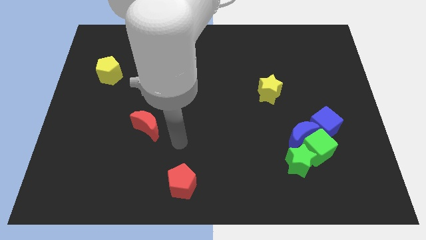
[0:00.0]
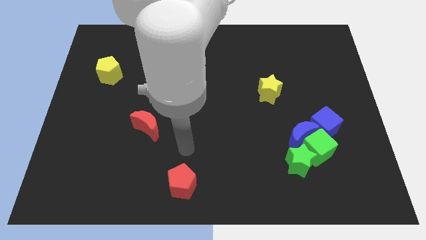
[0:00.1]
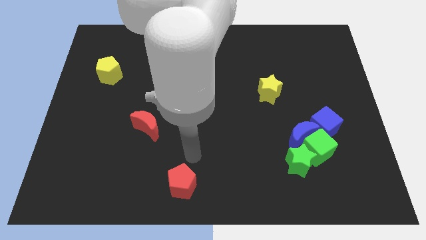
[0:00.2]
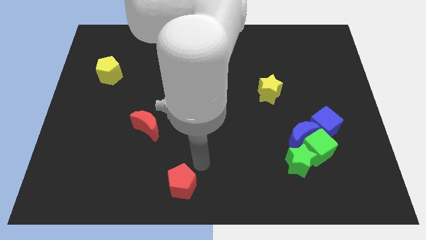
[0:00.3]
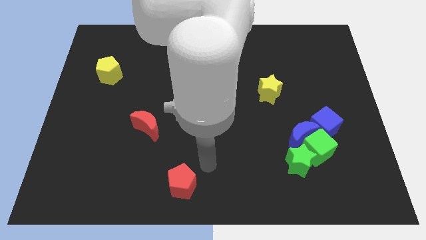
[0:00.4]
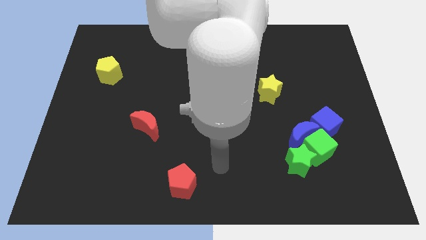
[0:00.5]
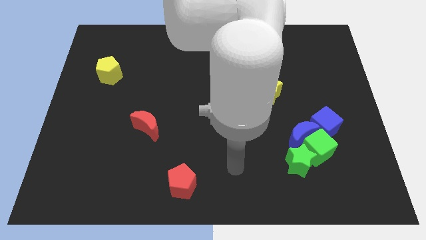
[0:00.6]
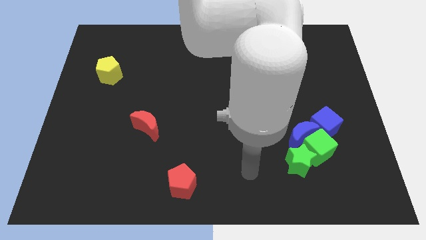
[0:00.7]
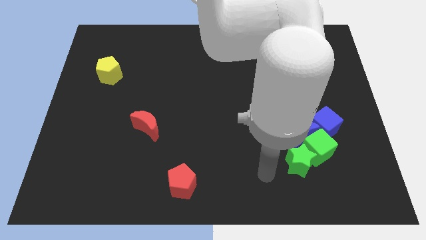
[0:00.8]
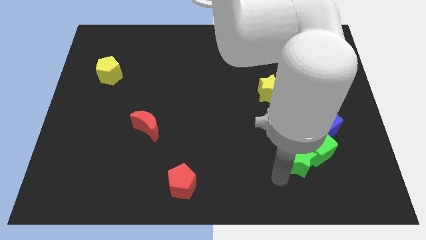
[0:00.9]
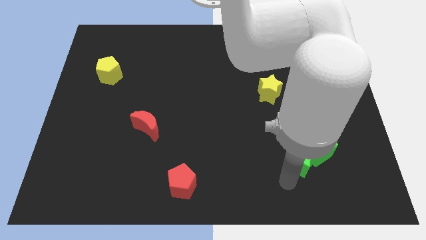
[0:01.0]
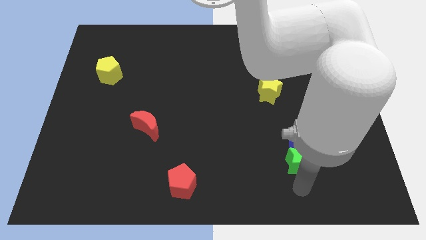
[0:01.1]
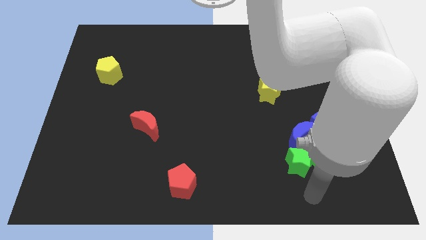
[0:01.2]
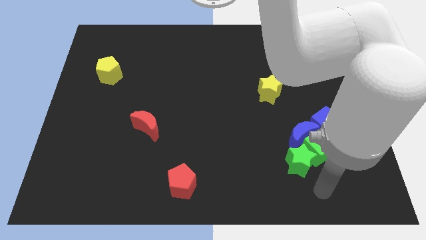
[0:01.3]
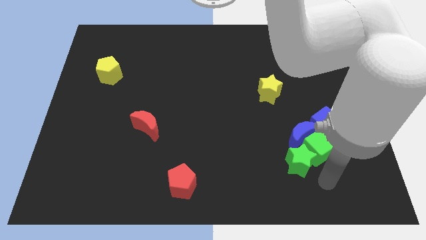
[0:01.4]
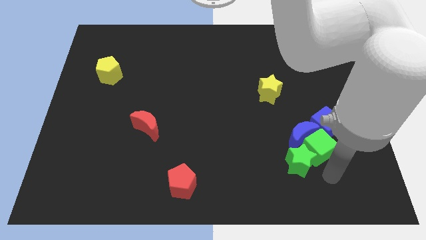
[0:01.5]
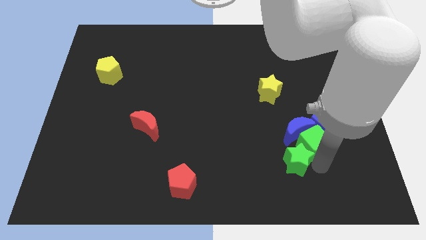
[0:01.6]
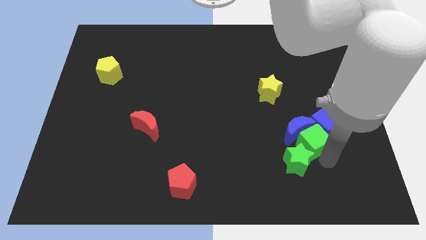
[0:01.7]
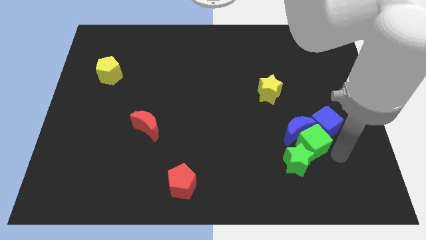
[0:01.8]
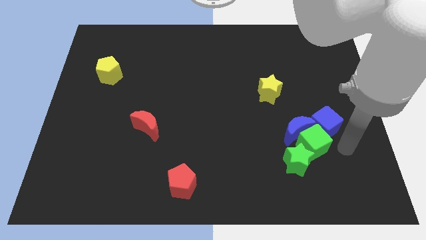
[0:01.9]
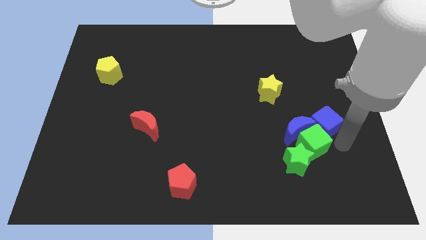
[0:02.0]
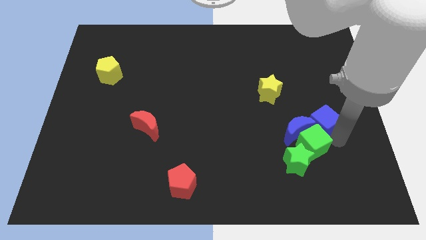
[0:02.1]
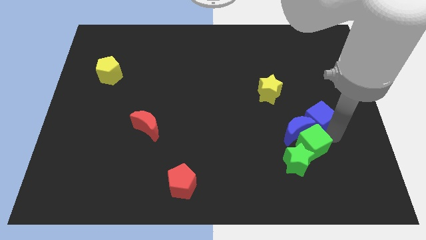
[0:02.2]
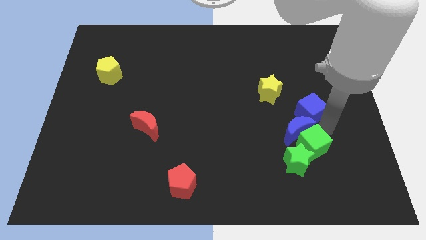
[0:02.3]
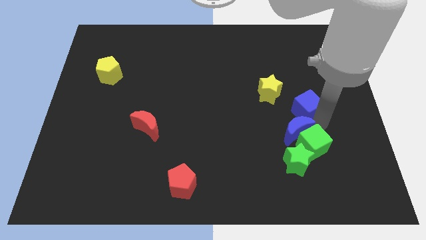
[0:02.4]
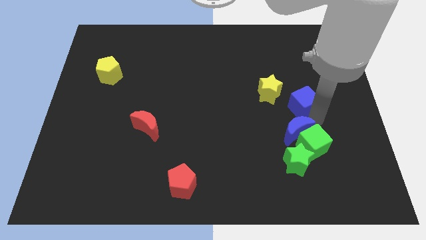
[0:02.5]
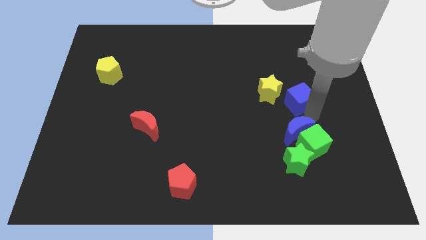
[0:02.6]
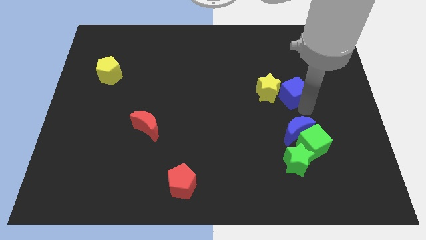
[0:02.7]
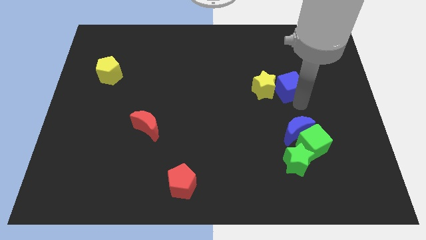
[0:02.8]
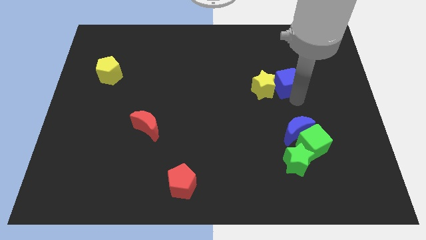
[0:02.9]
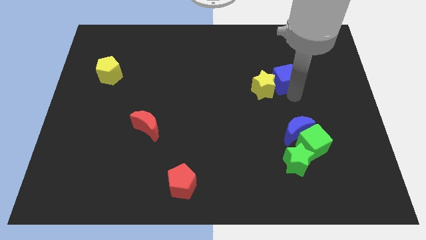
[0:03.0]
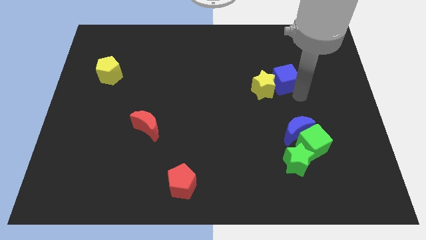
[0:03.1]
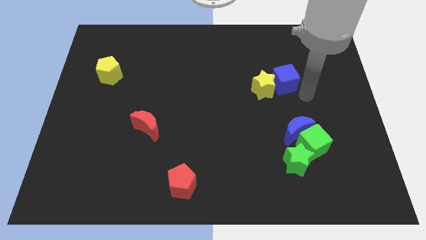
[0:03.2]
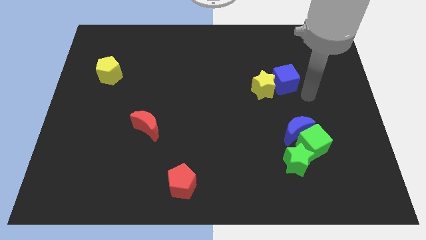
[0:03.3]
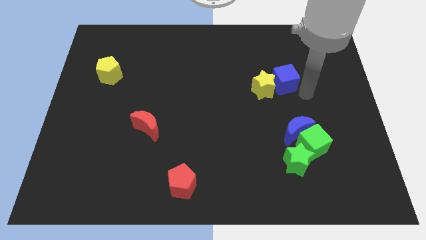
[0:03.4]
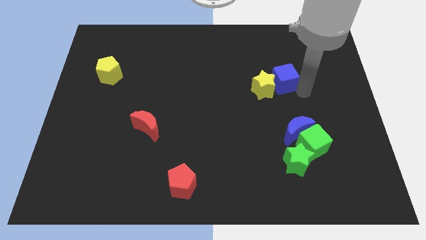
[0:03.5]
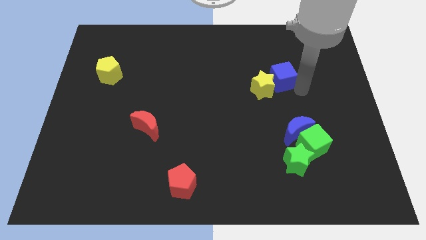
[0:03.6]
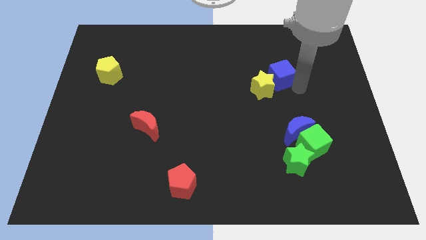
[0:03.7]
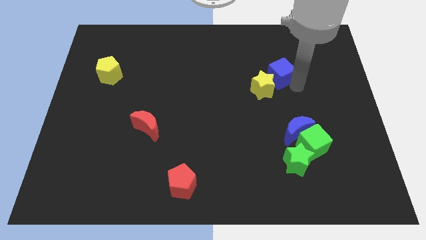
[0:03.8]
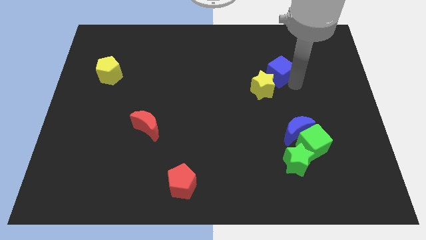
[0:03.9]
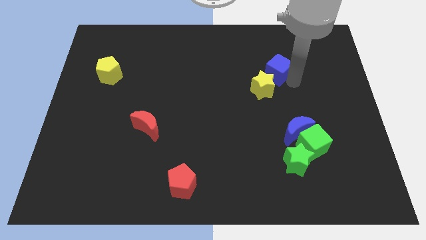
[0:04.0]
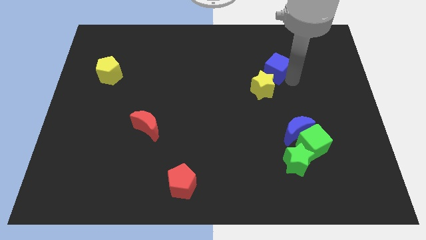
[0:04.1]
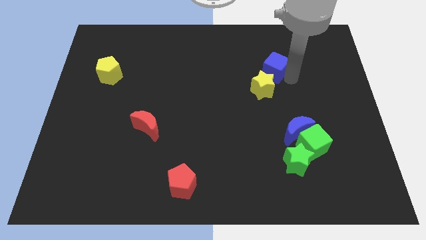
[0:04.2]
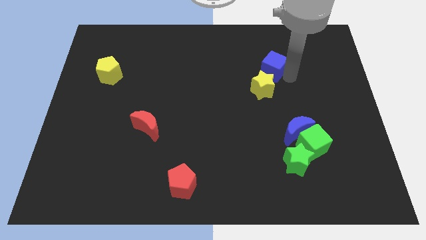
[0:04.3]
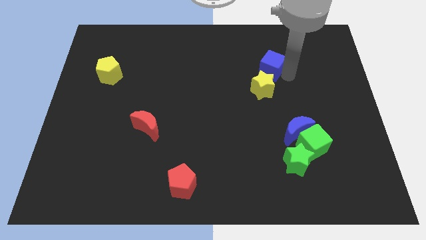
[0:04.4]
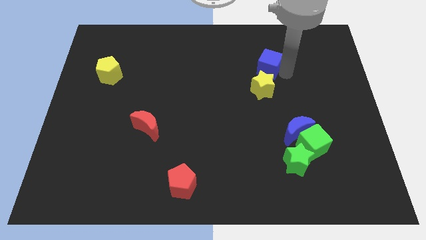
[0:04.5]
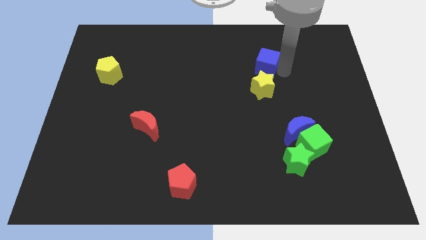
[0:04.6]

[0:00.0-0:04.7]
push the blue cube upwards and to the left

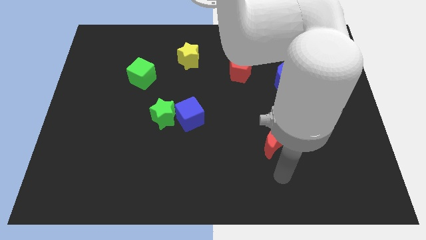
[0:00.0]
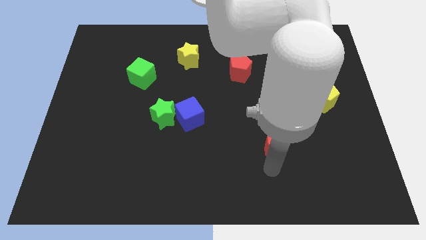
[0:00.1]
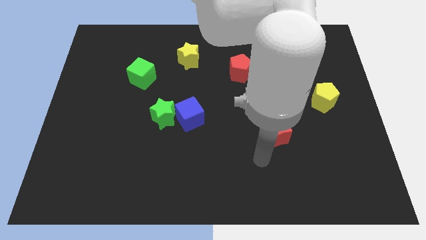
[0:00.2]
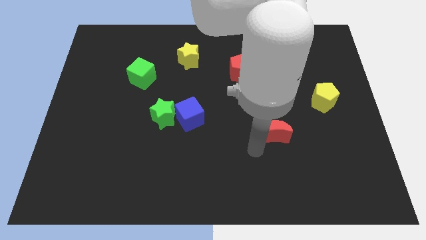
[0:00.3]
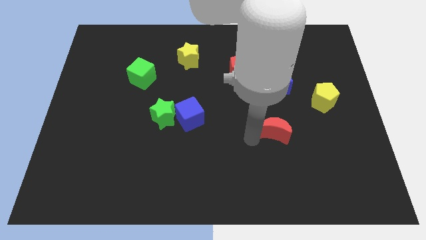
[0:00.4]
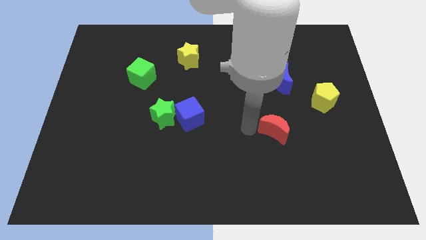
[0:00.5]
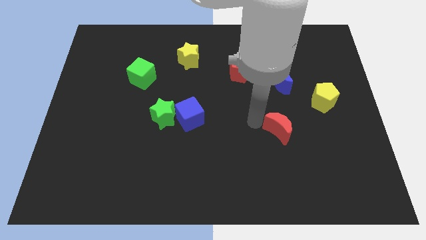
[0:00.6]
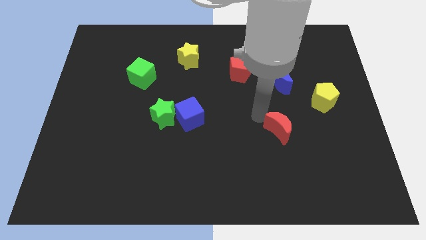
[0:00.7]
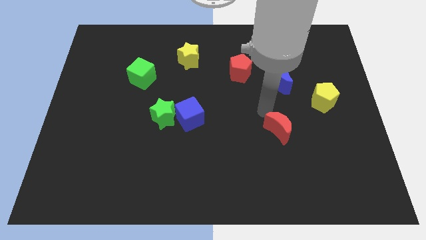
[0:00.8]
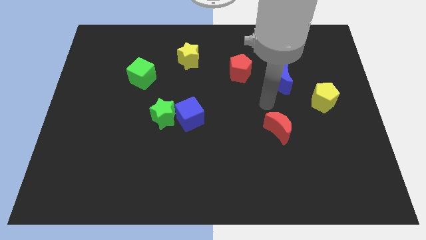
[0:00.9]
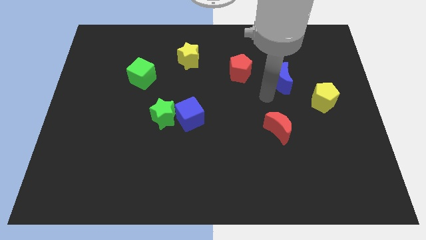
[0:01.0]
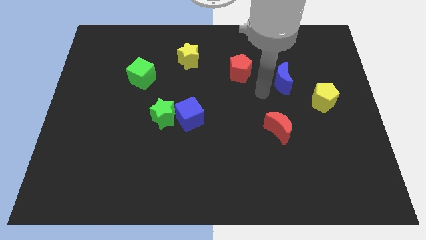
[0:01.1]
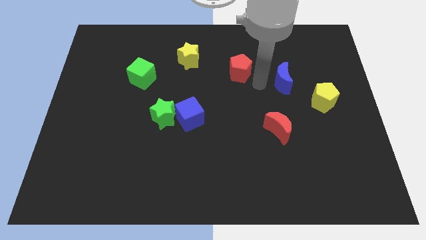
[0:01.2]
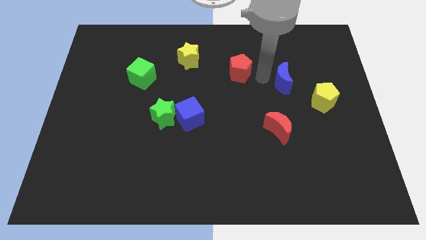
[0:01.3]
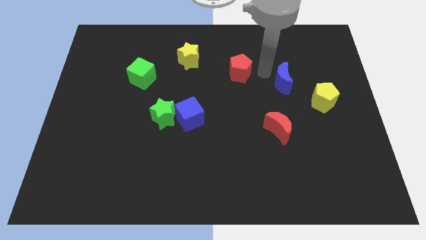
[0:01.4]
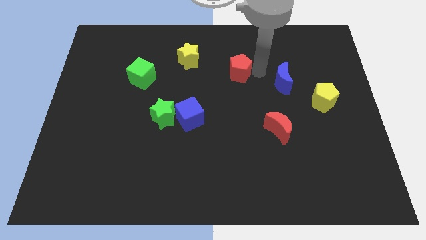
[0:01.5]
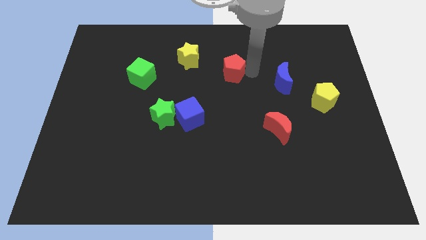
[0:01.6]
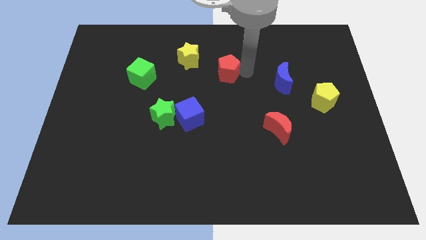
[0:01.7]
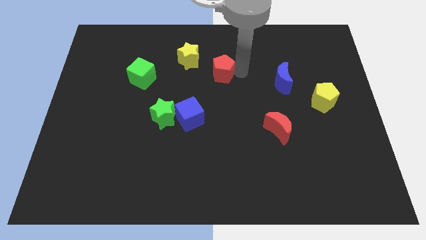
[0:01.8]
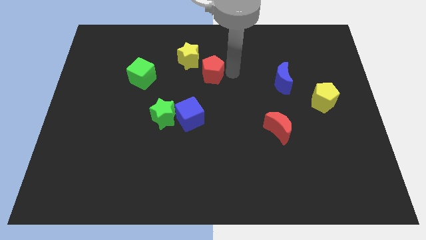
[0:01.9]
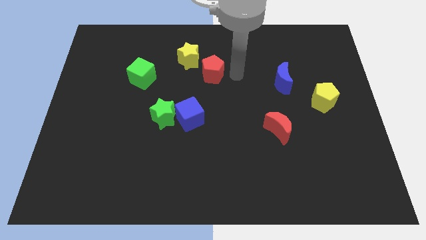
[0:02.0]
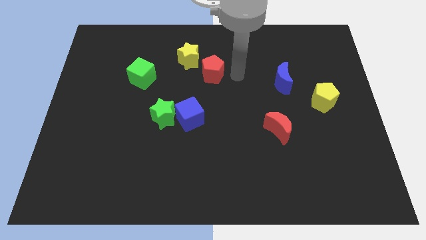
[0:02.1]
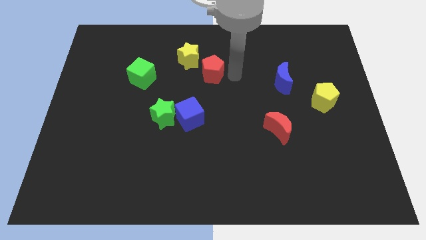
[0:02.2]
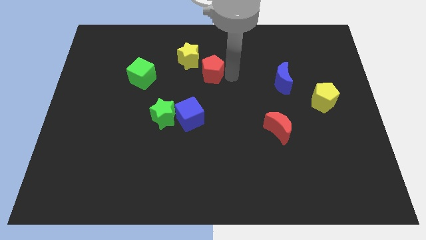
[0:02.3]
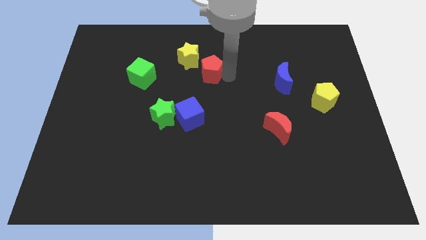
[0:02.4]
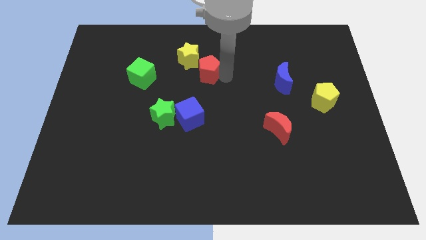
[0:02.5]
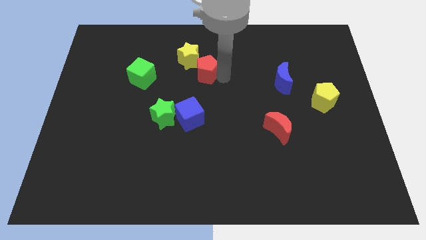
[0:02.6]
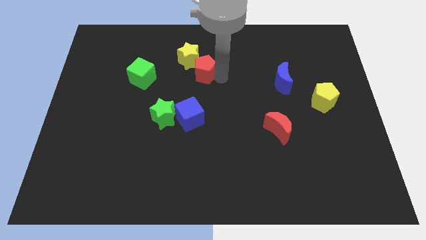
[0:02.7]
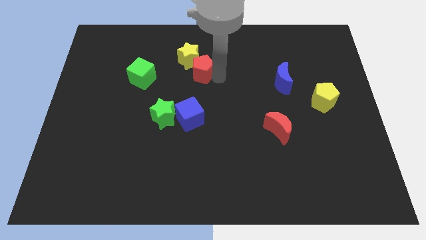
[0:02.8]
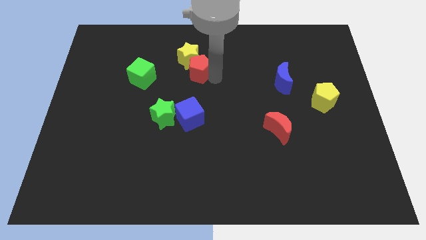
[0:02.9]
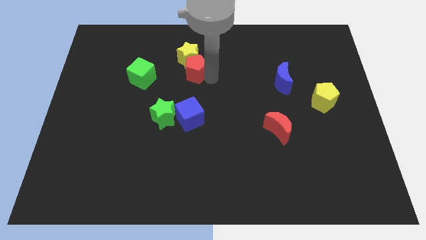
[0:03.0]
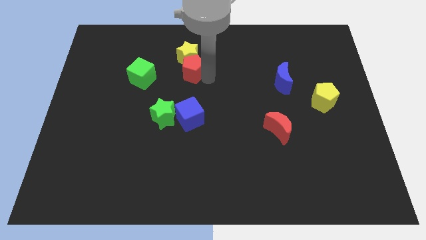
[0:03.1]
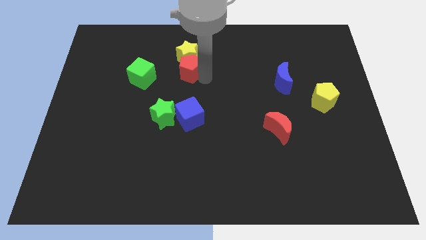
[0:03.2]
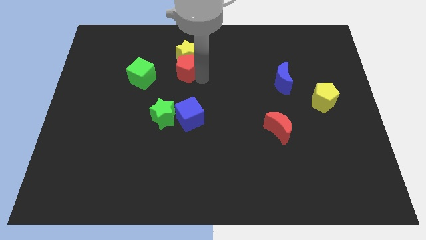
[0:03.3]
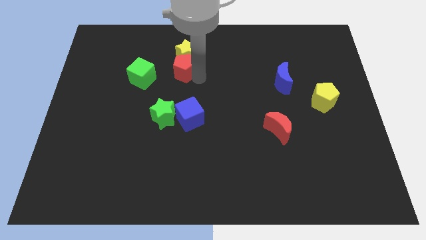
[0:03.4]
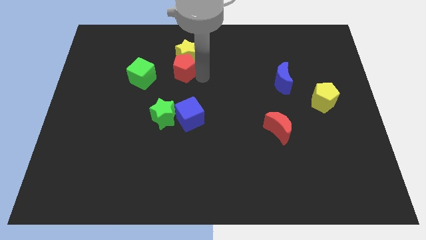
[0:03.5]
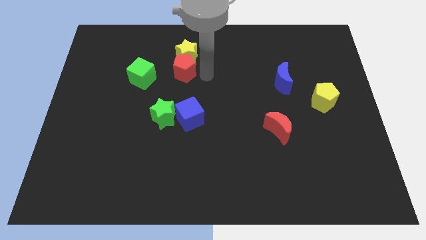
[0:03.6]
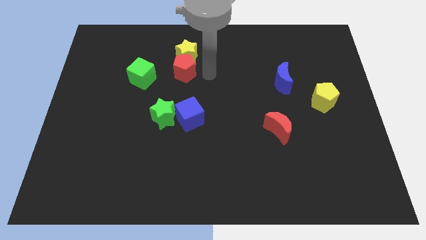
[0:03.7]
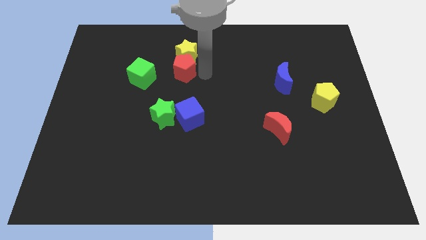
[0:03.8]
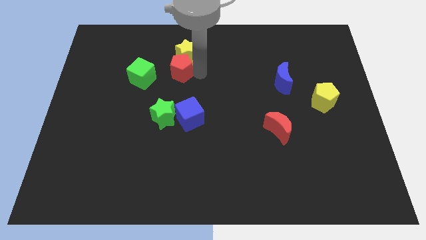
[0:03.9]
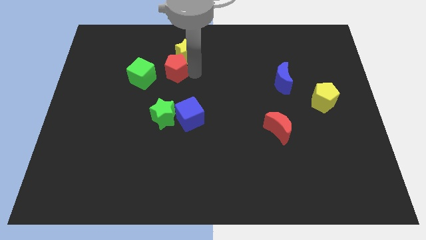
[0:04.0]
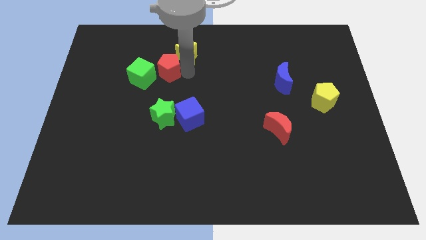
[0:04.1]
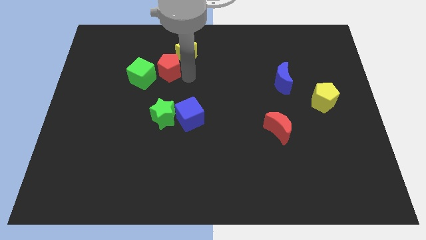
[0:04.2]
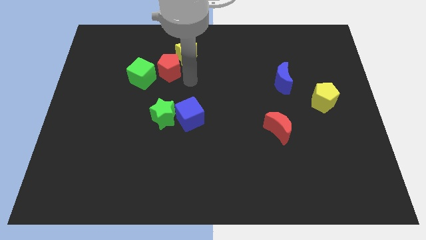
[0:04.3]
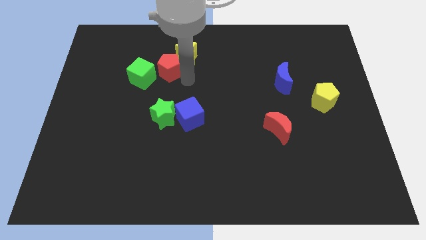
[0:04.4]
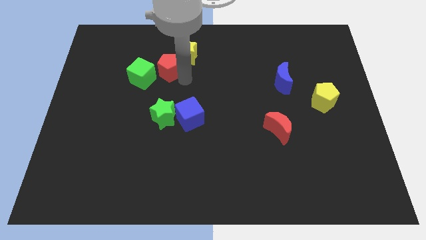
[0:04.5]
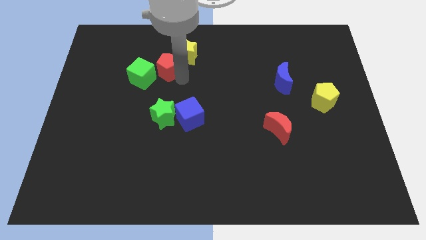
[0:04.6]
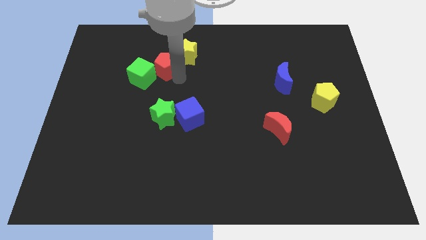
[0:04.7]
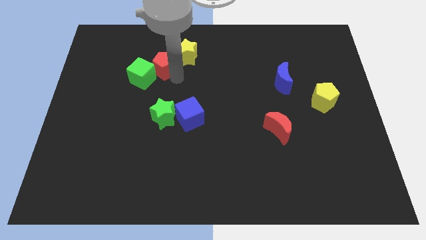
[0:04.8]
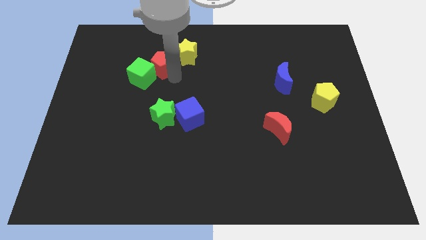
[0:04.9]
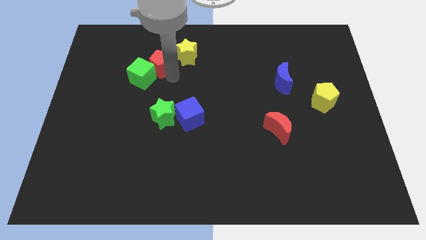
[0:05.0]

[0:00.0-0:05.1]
push the red pentagon left
